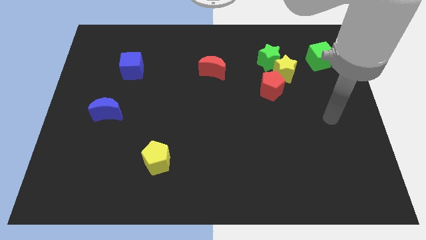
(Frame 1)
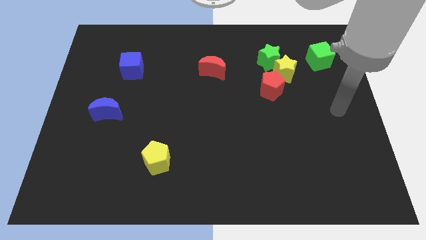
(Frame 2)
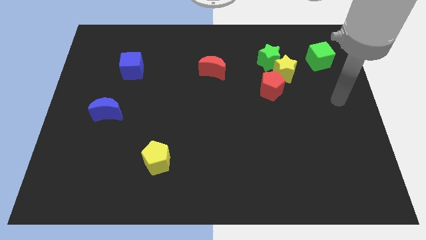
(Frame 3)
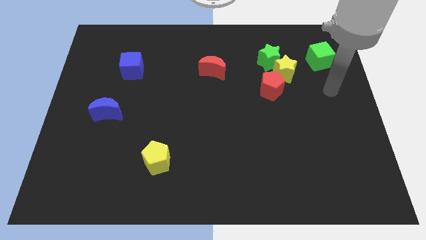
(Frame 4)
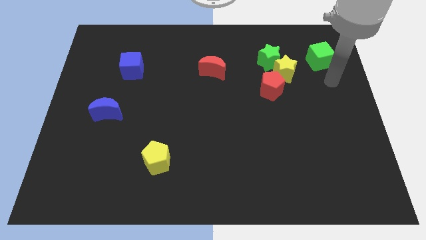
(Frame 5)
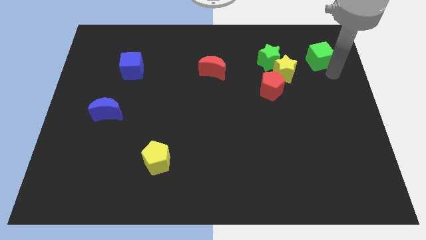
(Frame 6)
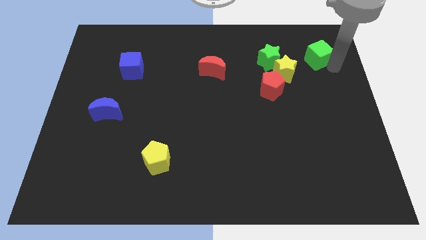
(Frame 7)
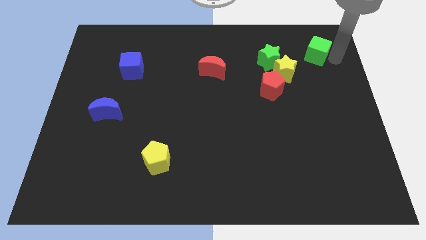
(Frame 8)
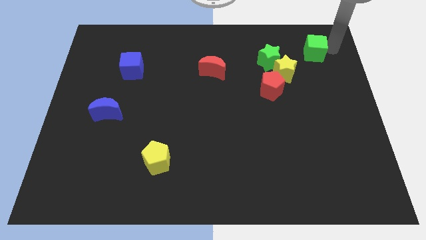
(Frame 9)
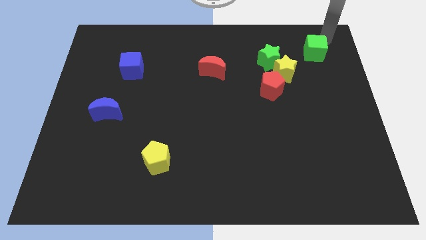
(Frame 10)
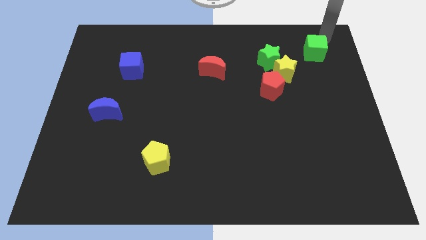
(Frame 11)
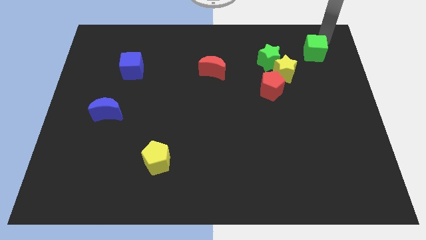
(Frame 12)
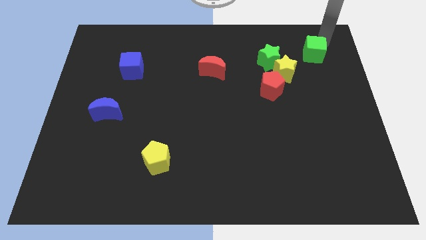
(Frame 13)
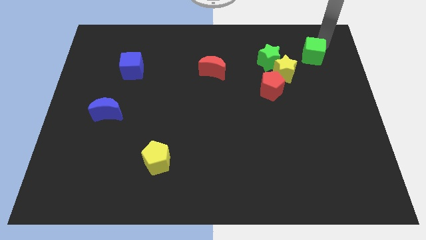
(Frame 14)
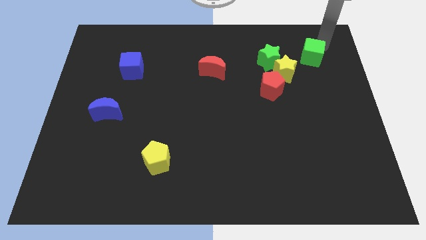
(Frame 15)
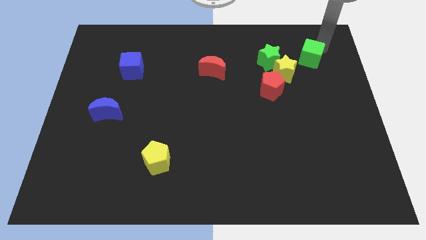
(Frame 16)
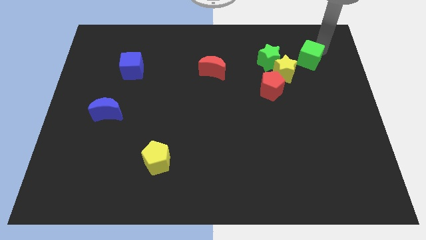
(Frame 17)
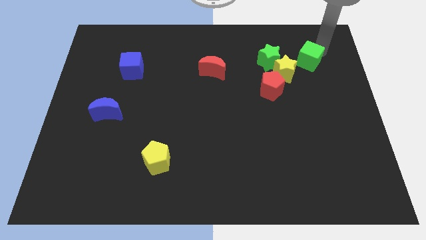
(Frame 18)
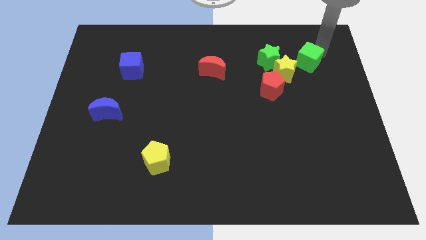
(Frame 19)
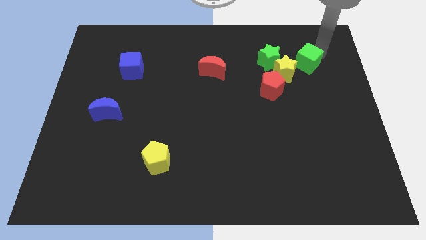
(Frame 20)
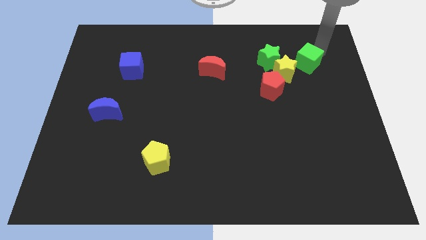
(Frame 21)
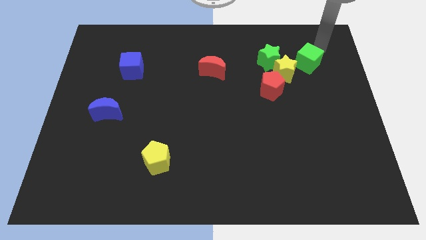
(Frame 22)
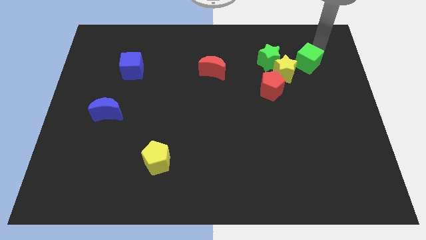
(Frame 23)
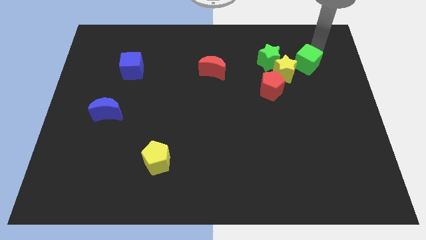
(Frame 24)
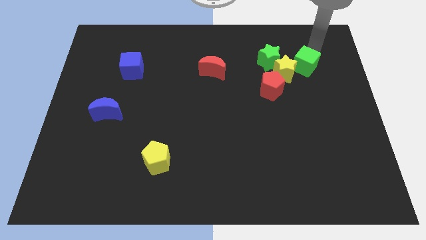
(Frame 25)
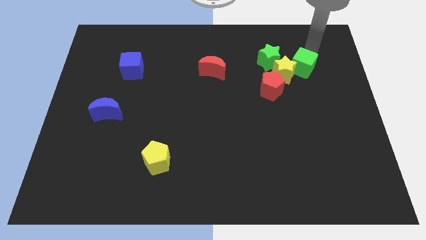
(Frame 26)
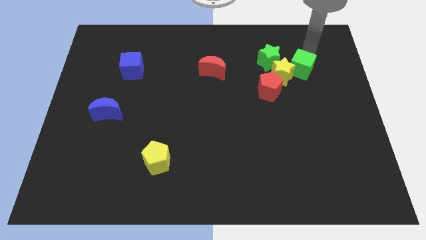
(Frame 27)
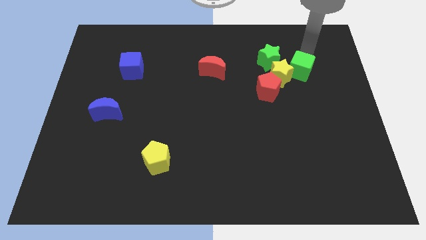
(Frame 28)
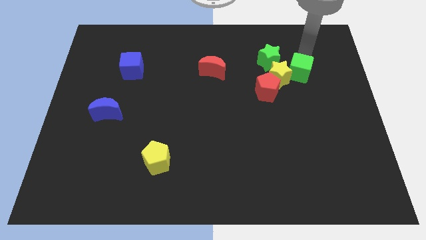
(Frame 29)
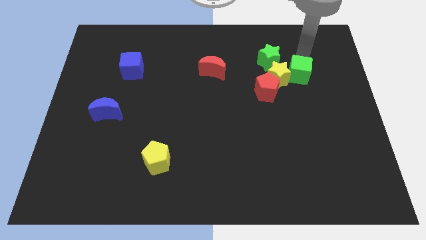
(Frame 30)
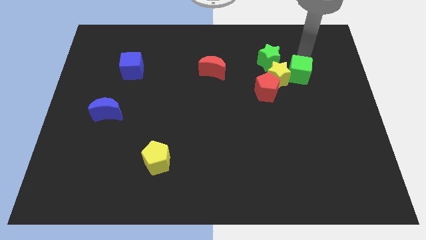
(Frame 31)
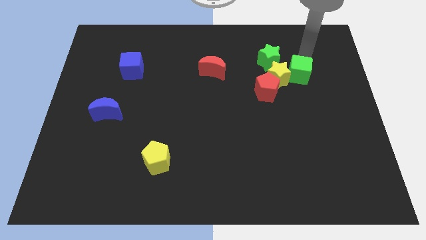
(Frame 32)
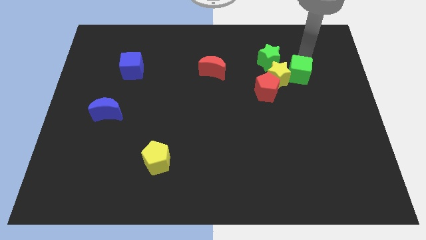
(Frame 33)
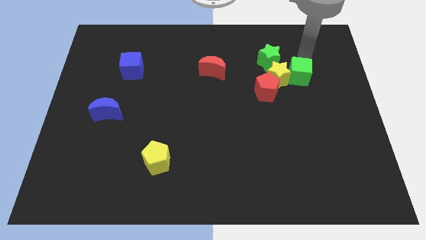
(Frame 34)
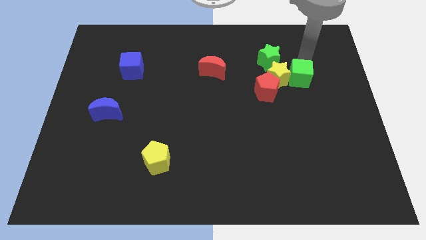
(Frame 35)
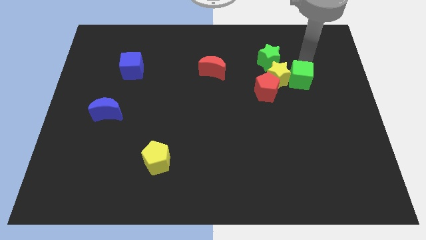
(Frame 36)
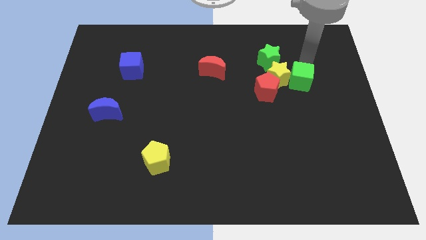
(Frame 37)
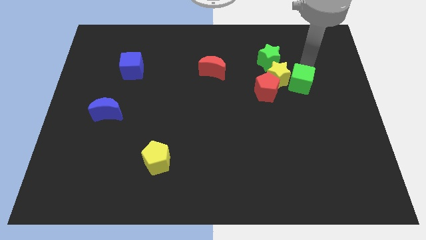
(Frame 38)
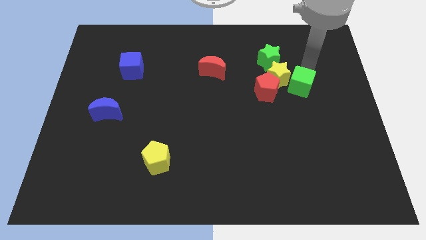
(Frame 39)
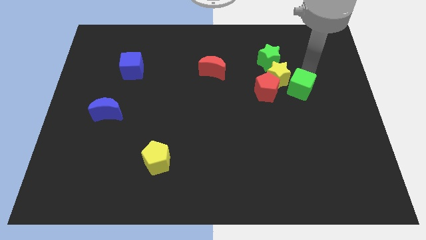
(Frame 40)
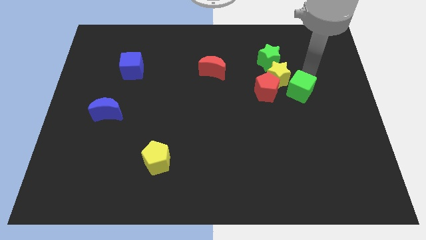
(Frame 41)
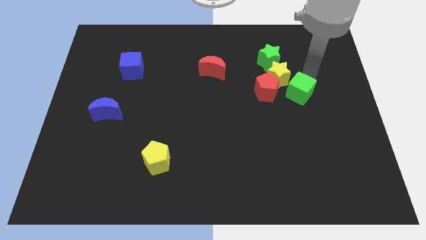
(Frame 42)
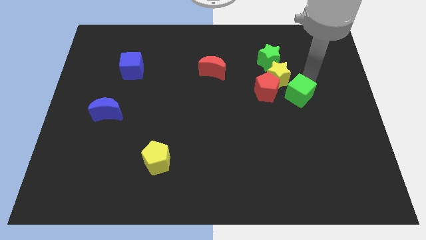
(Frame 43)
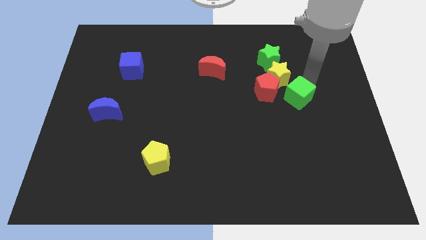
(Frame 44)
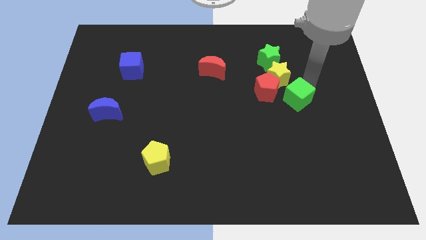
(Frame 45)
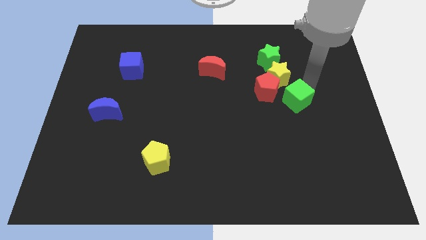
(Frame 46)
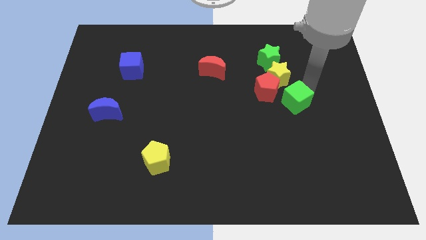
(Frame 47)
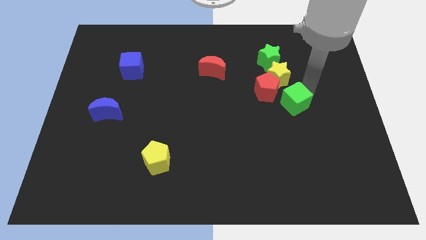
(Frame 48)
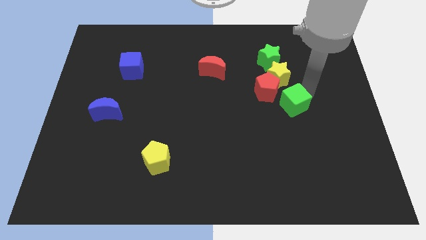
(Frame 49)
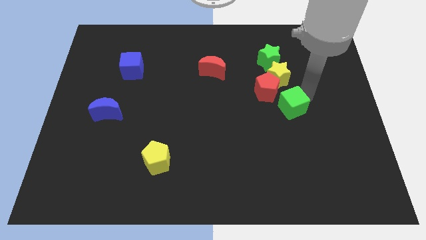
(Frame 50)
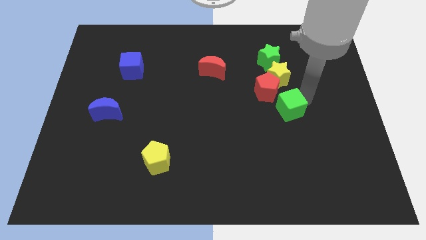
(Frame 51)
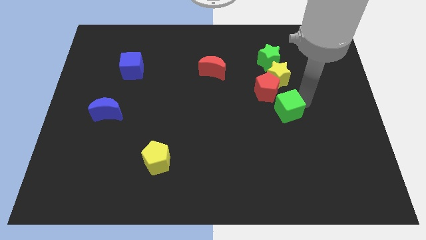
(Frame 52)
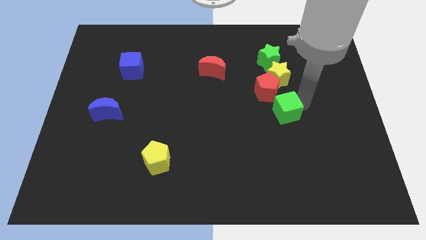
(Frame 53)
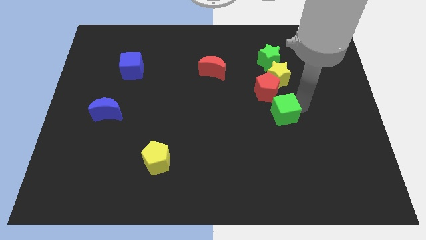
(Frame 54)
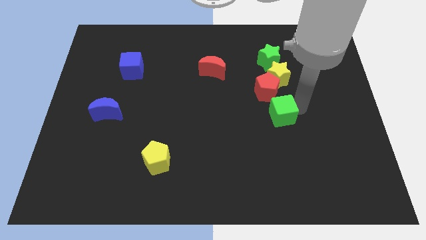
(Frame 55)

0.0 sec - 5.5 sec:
push the green cube downwards and left diagonally

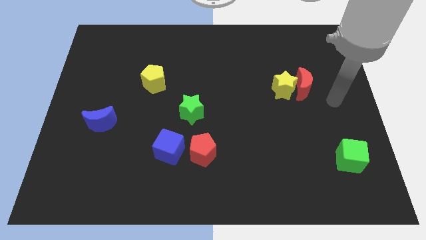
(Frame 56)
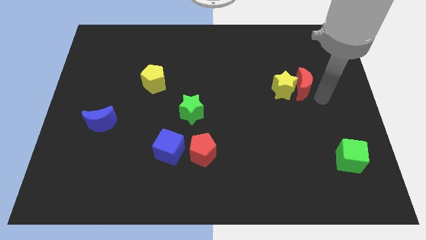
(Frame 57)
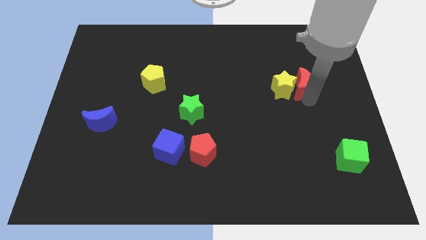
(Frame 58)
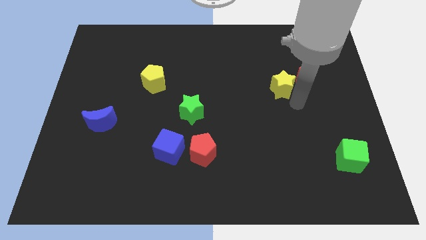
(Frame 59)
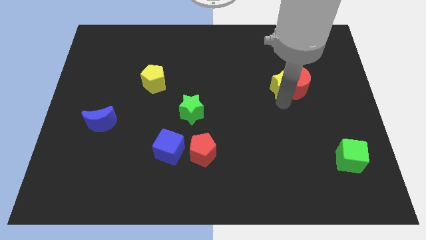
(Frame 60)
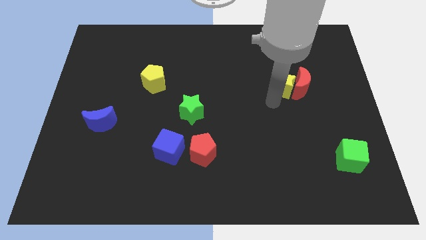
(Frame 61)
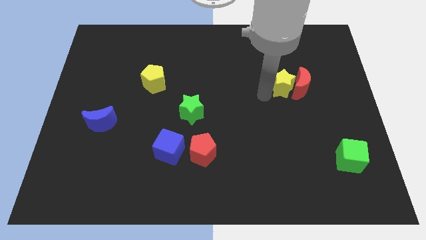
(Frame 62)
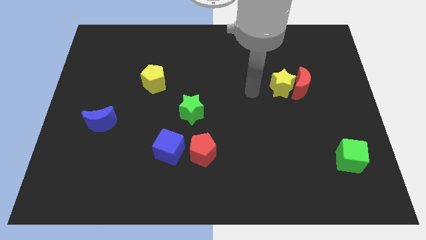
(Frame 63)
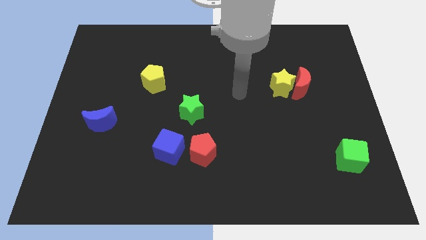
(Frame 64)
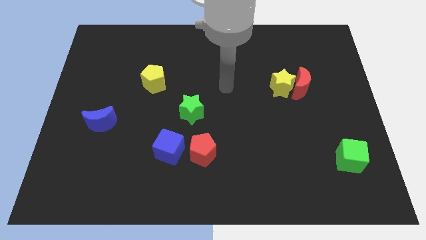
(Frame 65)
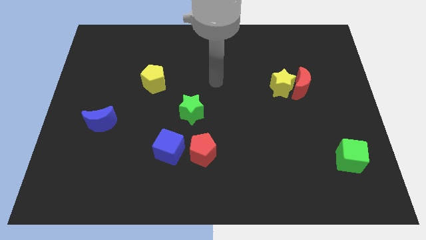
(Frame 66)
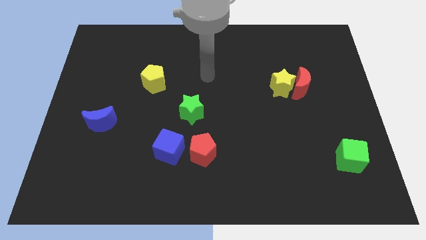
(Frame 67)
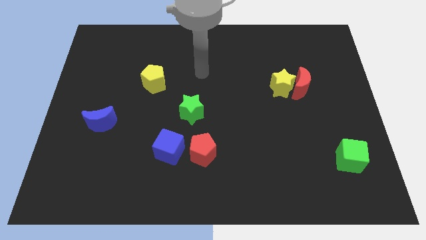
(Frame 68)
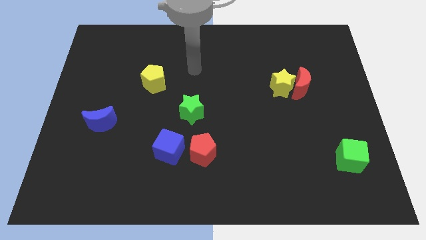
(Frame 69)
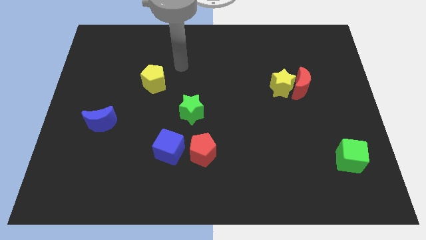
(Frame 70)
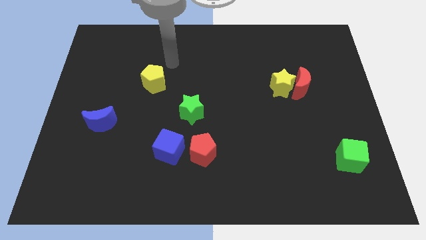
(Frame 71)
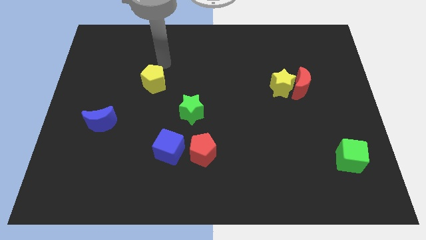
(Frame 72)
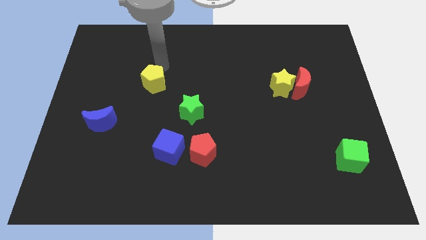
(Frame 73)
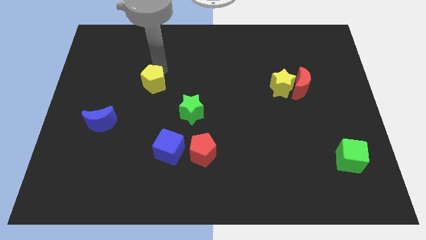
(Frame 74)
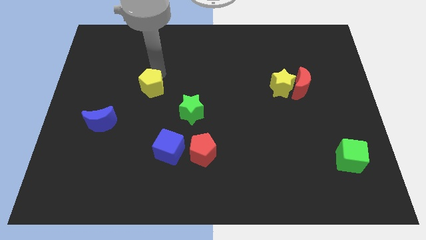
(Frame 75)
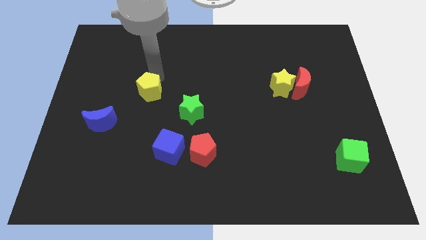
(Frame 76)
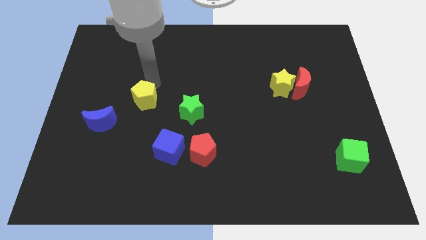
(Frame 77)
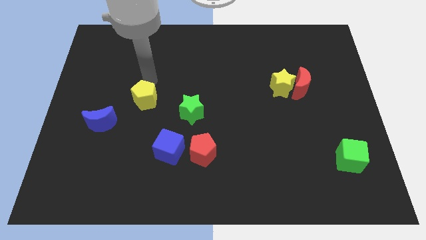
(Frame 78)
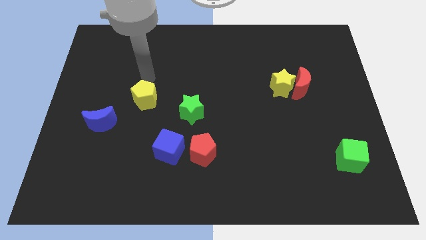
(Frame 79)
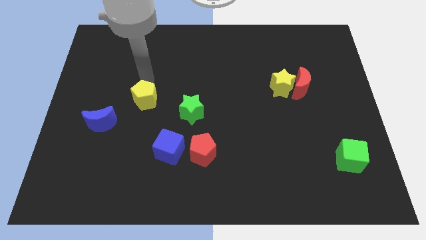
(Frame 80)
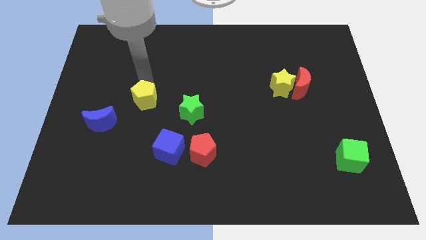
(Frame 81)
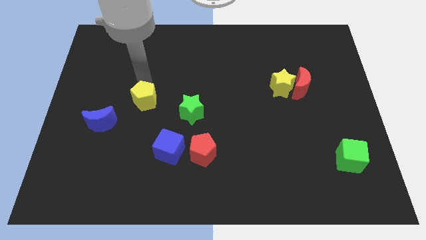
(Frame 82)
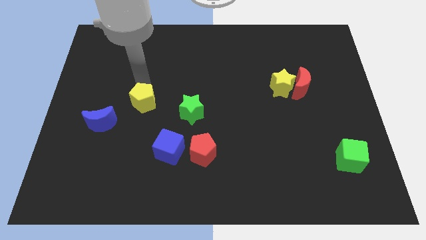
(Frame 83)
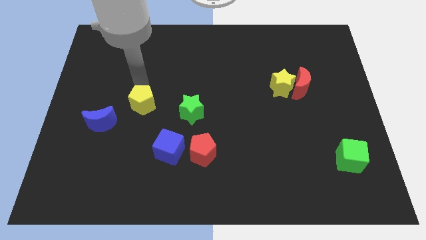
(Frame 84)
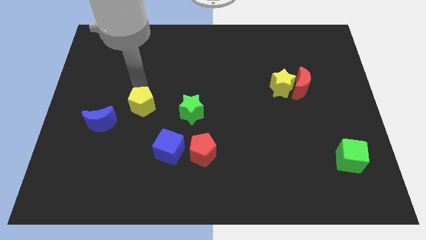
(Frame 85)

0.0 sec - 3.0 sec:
slide the yellow pentagon down somewhat

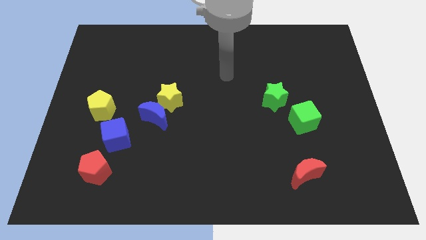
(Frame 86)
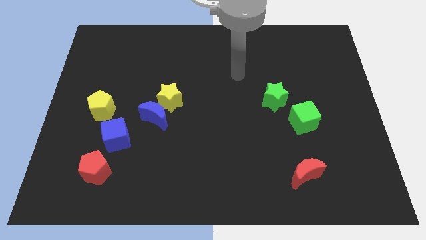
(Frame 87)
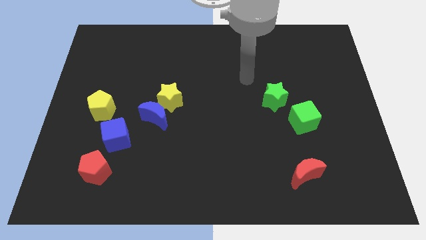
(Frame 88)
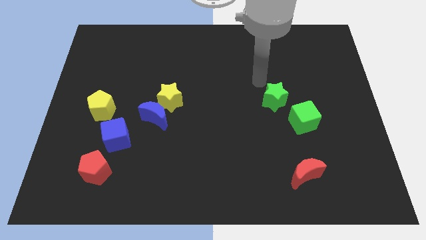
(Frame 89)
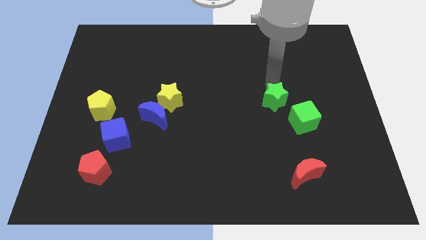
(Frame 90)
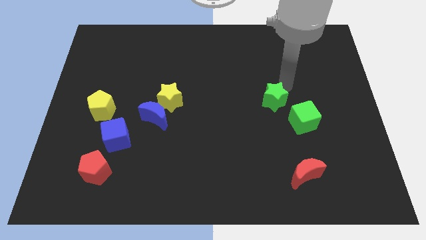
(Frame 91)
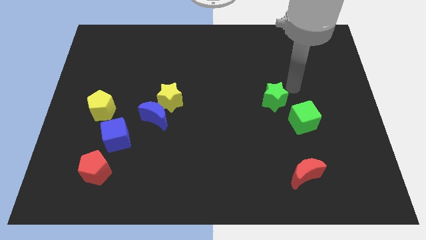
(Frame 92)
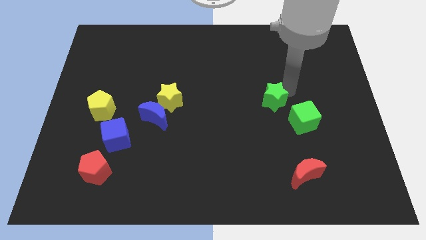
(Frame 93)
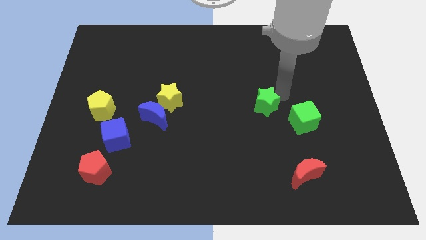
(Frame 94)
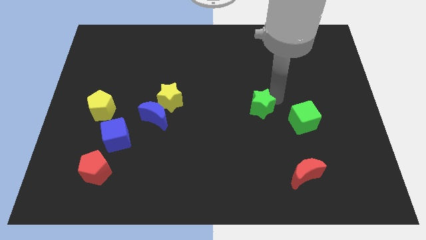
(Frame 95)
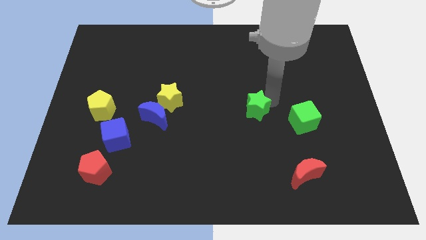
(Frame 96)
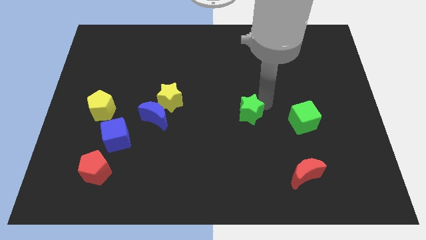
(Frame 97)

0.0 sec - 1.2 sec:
slightly slide the green star downwards and then left
